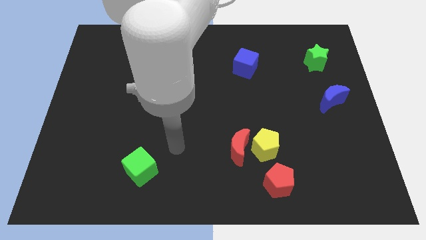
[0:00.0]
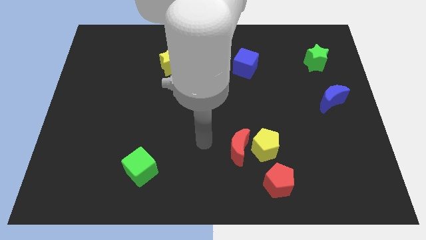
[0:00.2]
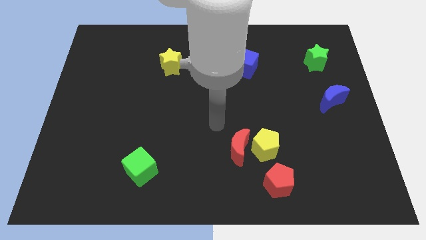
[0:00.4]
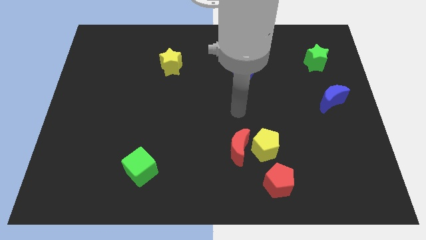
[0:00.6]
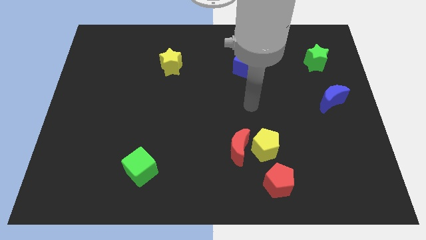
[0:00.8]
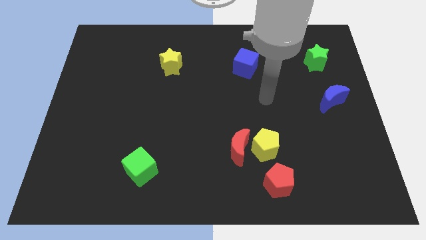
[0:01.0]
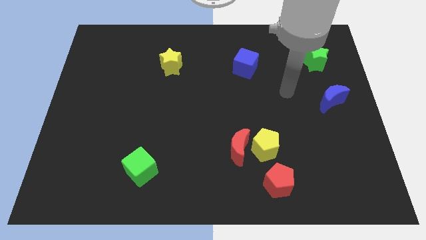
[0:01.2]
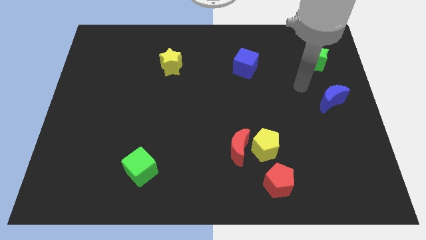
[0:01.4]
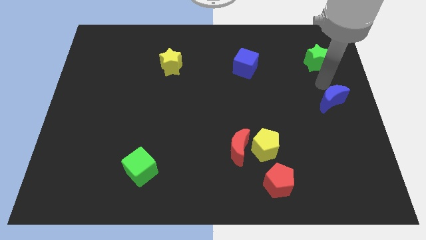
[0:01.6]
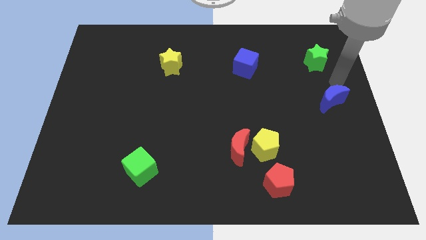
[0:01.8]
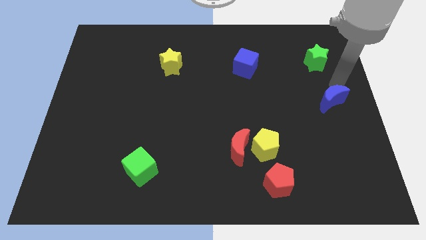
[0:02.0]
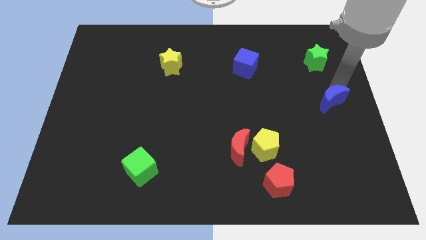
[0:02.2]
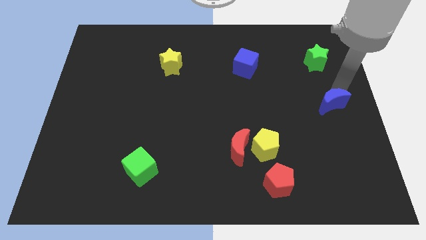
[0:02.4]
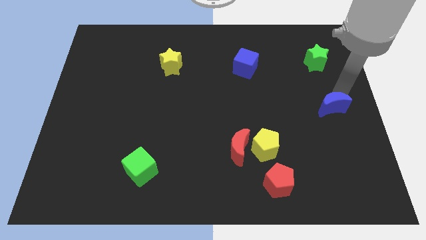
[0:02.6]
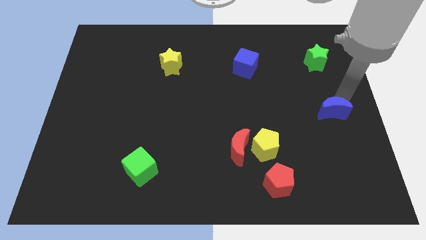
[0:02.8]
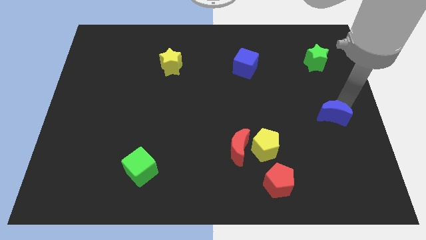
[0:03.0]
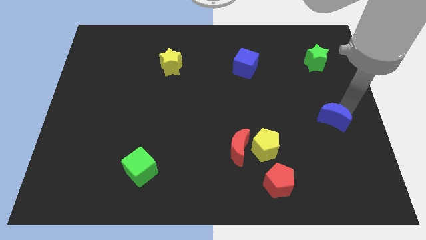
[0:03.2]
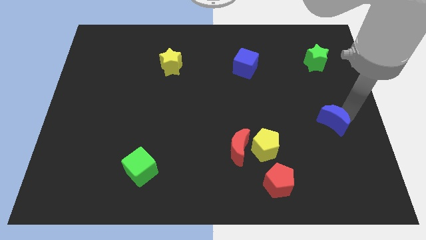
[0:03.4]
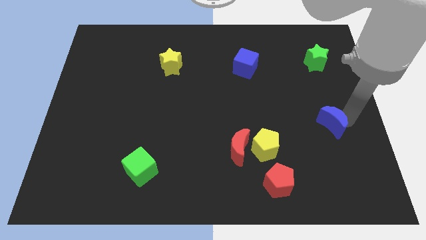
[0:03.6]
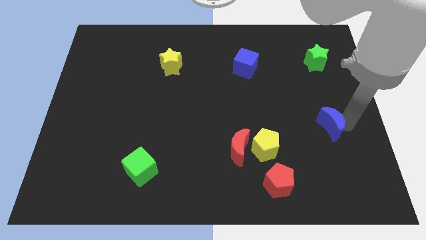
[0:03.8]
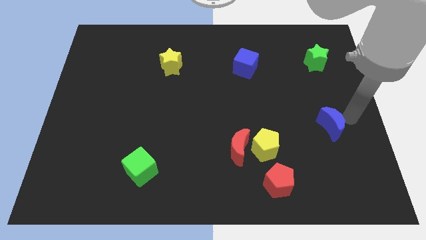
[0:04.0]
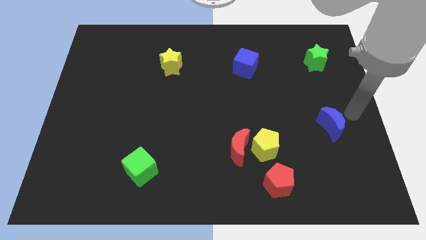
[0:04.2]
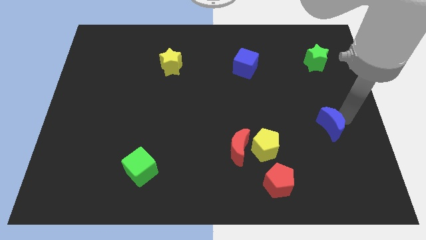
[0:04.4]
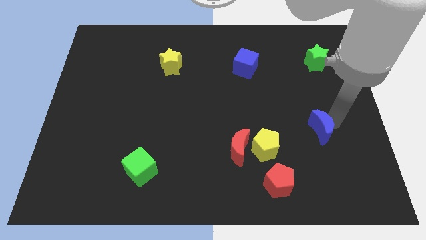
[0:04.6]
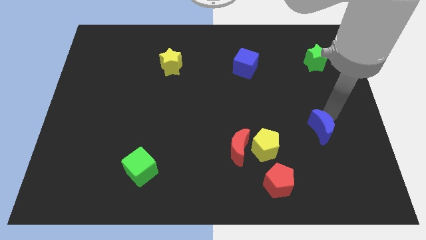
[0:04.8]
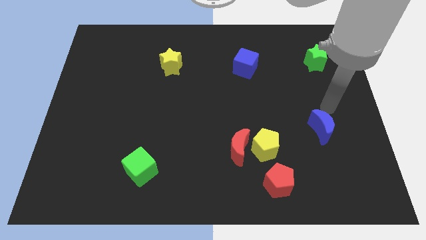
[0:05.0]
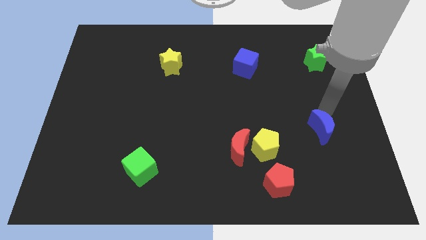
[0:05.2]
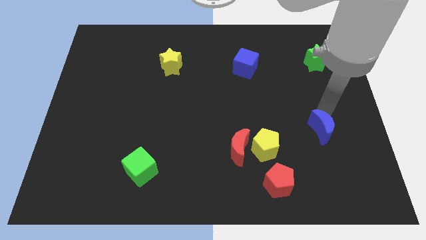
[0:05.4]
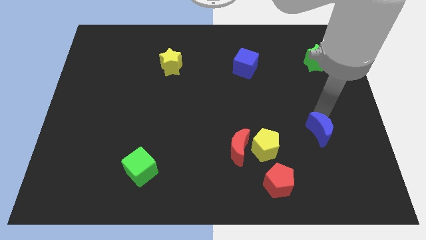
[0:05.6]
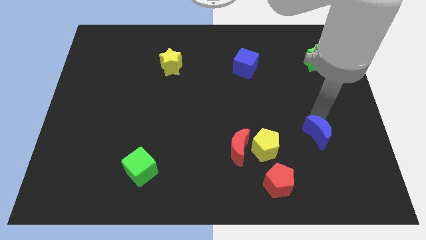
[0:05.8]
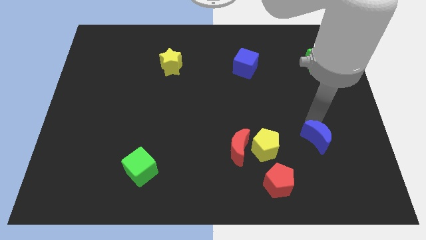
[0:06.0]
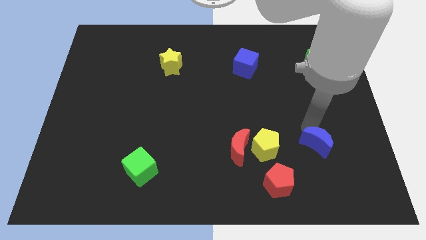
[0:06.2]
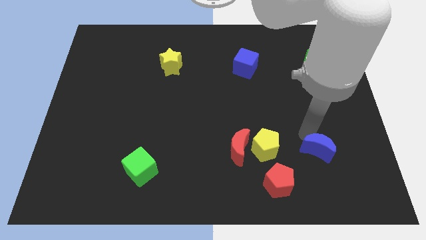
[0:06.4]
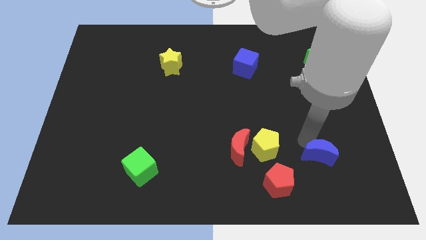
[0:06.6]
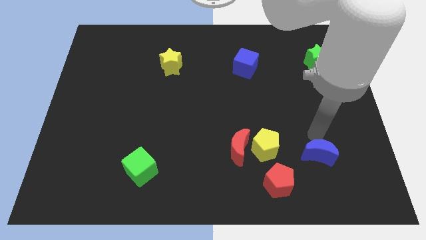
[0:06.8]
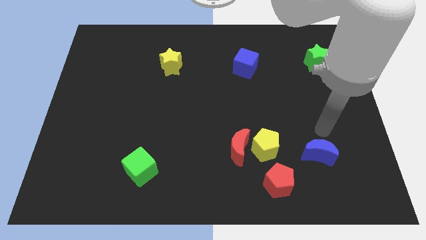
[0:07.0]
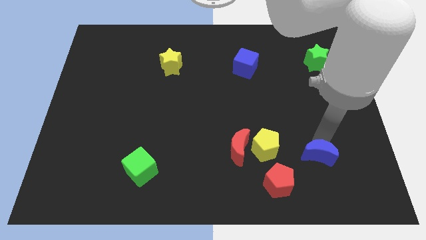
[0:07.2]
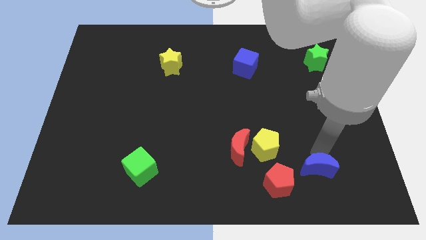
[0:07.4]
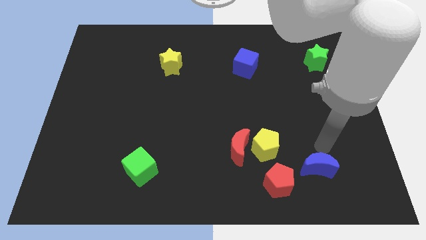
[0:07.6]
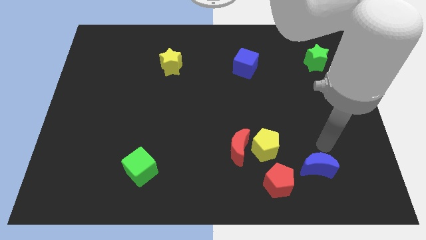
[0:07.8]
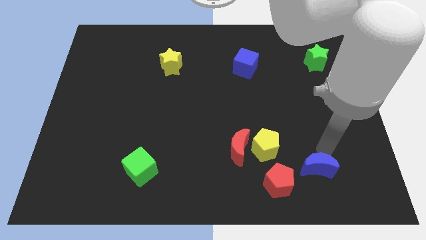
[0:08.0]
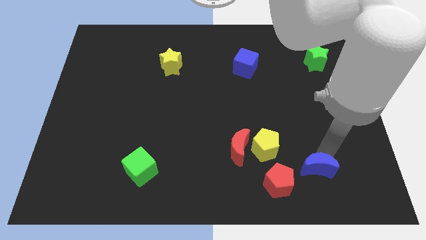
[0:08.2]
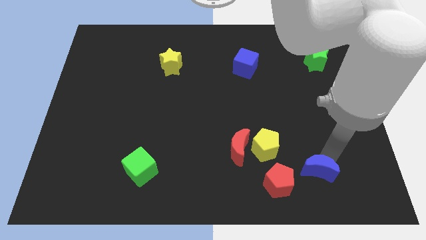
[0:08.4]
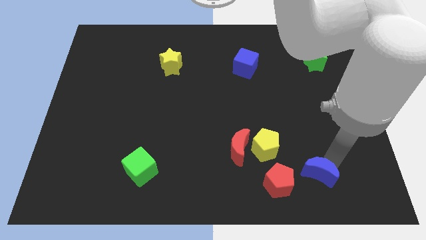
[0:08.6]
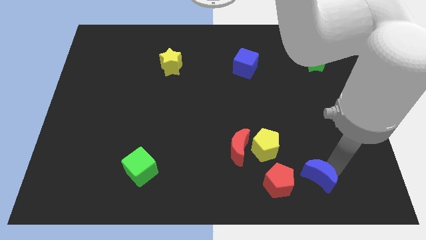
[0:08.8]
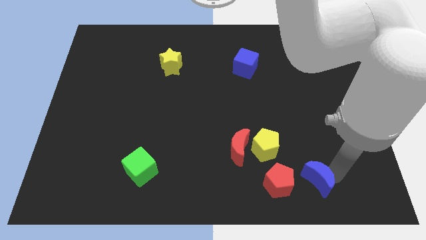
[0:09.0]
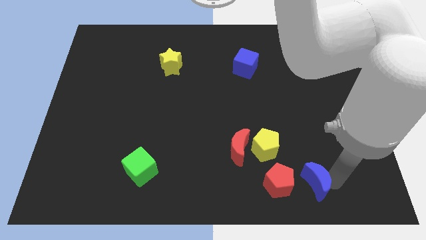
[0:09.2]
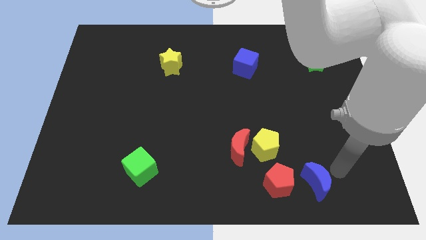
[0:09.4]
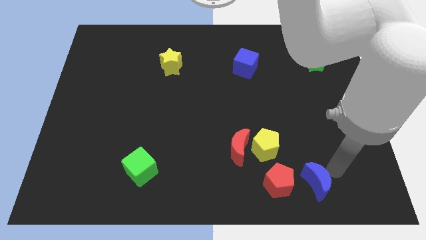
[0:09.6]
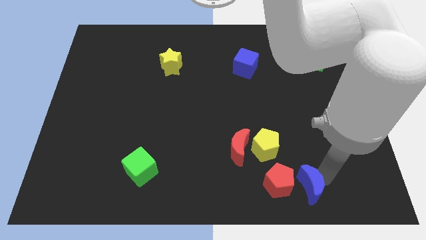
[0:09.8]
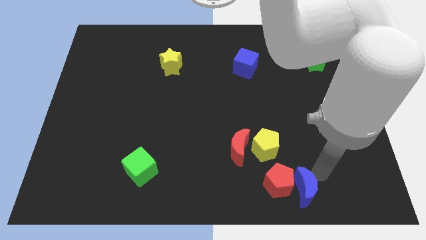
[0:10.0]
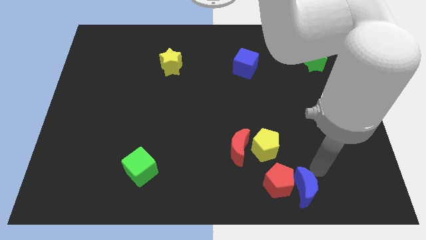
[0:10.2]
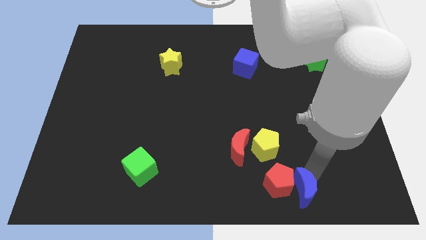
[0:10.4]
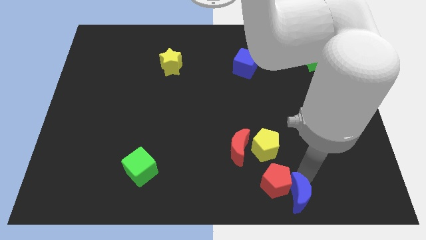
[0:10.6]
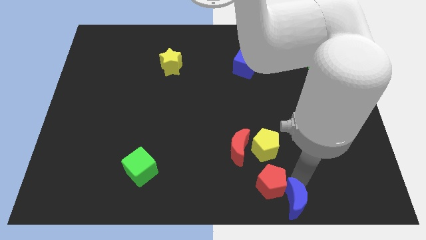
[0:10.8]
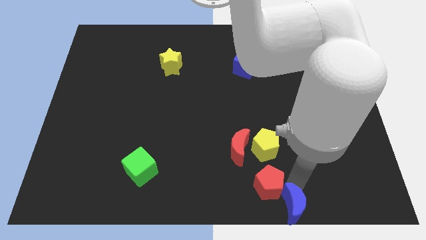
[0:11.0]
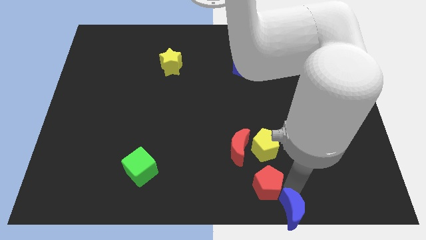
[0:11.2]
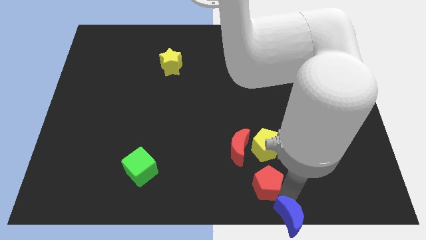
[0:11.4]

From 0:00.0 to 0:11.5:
slide the blue moon to the bottom side
